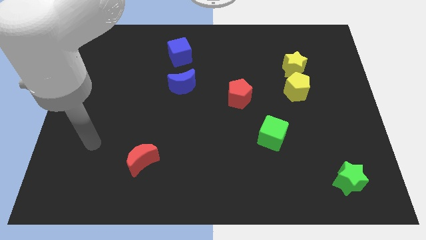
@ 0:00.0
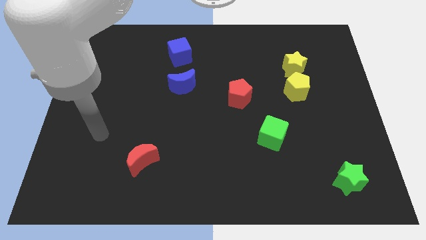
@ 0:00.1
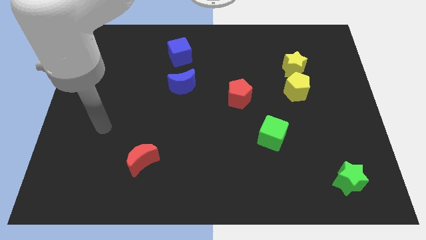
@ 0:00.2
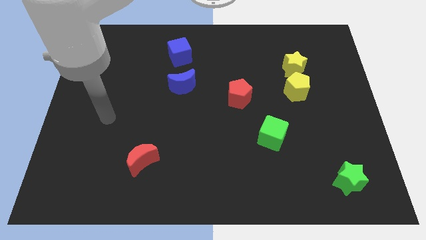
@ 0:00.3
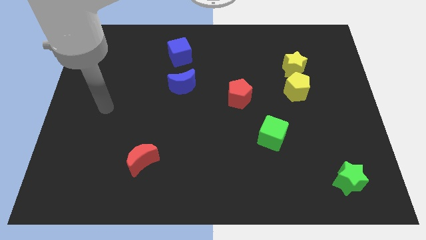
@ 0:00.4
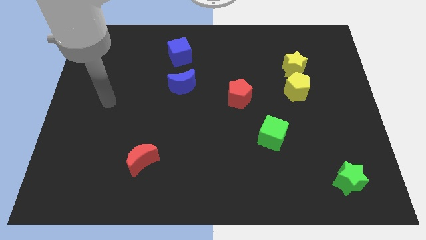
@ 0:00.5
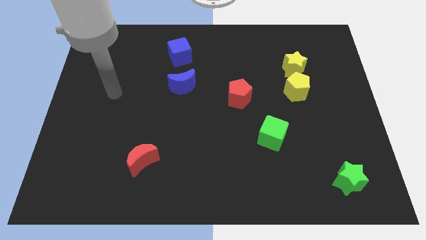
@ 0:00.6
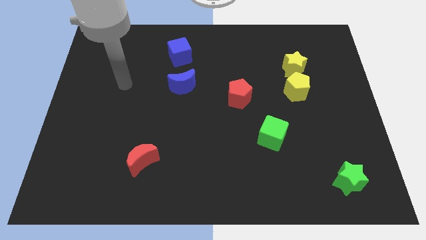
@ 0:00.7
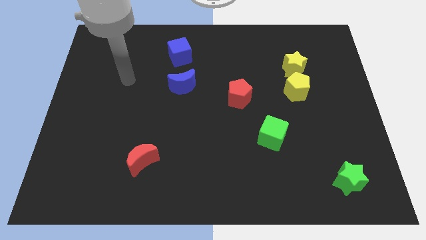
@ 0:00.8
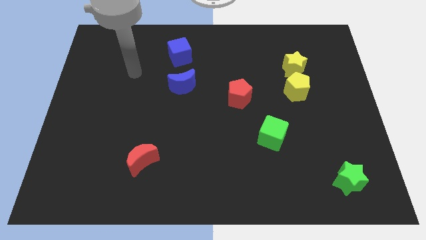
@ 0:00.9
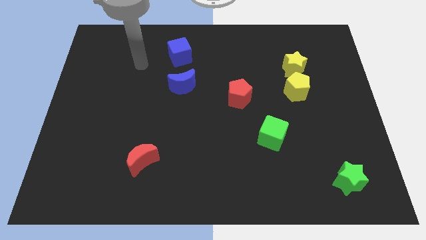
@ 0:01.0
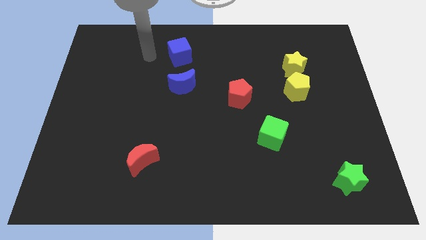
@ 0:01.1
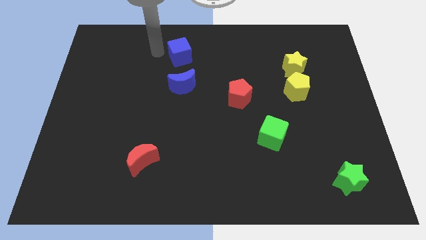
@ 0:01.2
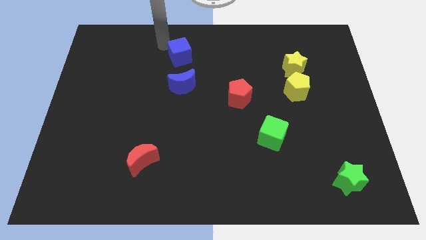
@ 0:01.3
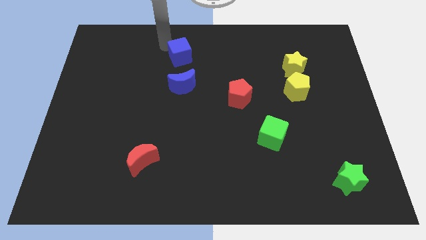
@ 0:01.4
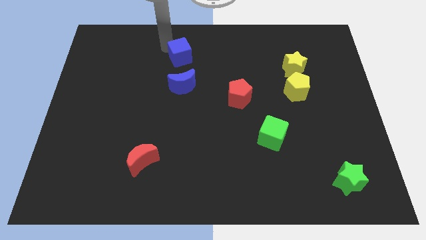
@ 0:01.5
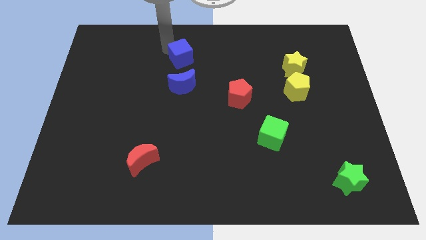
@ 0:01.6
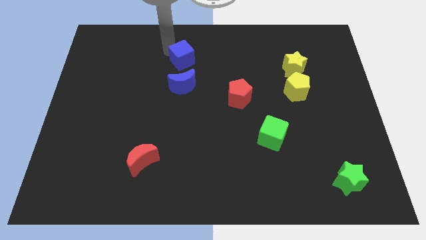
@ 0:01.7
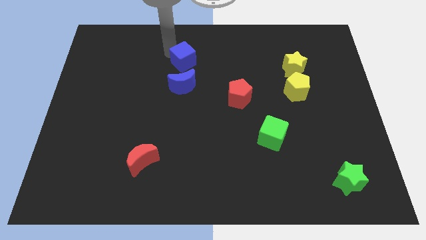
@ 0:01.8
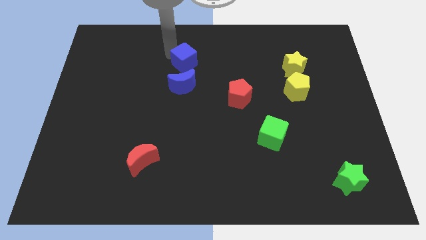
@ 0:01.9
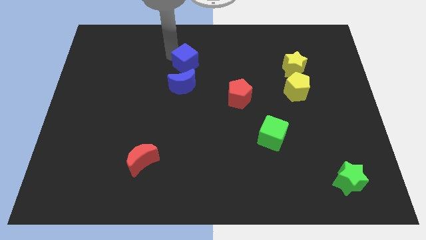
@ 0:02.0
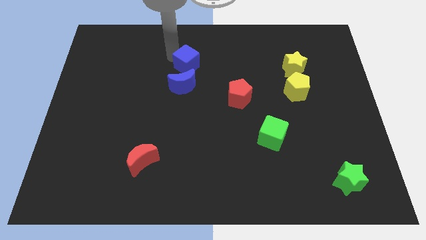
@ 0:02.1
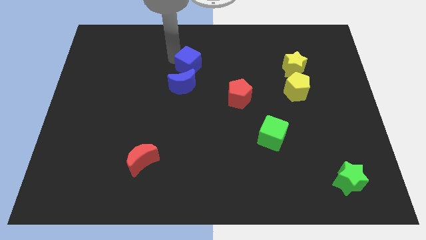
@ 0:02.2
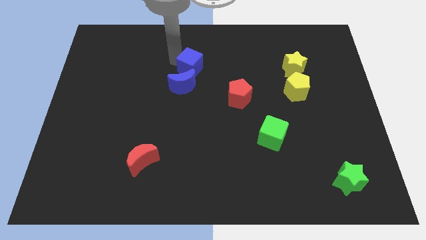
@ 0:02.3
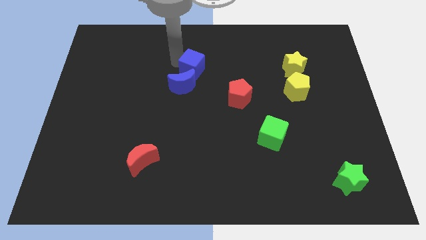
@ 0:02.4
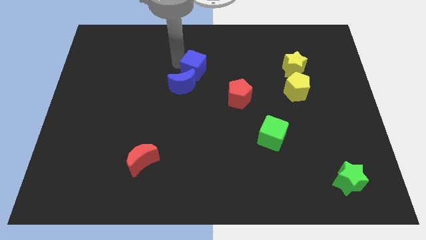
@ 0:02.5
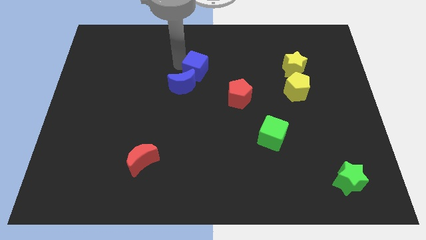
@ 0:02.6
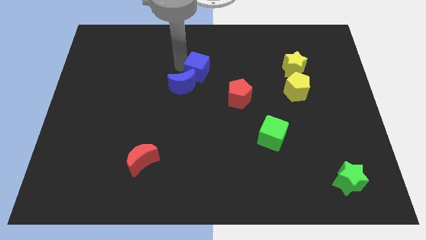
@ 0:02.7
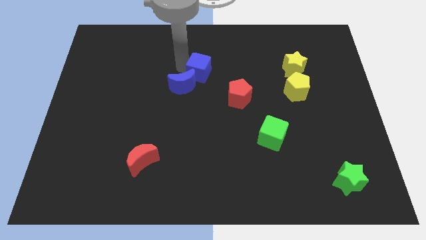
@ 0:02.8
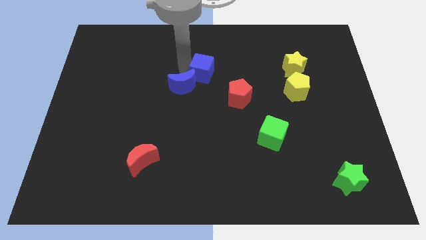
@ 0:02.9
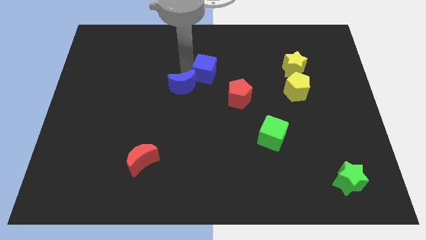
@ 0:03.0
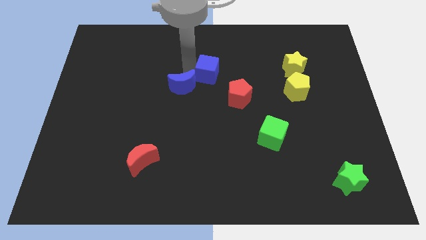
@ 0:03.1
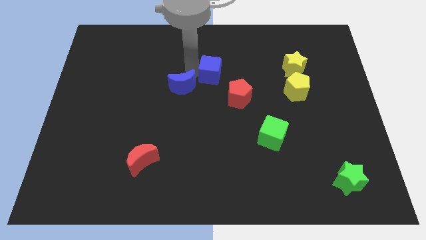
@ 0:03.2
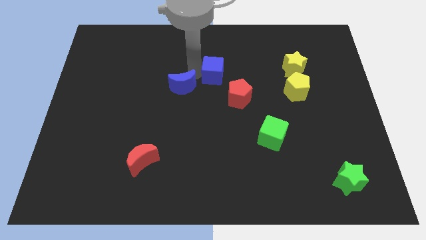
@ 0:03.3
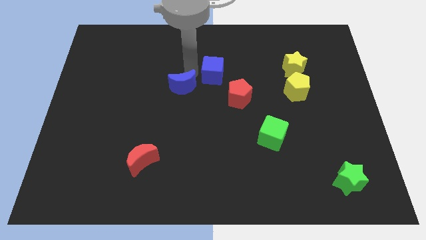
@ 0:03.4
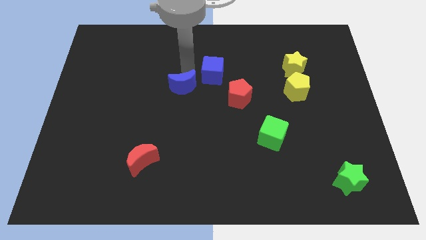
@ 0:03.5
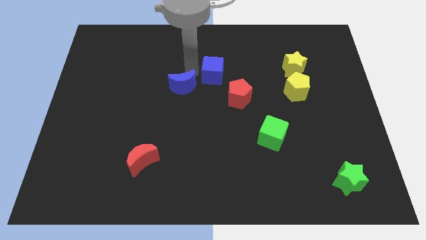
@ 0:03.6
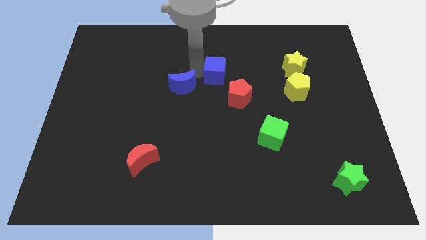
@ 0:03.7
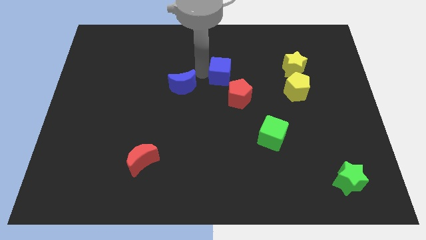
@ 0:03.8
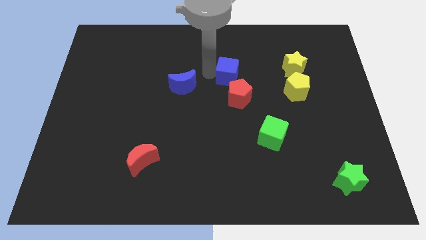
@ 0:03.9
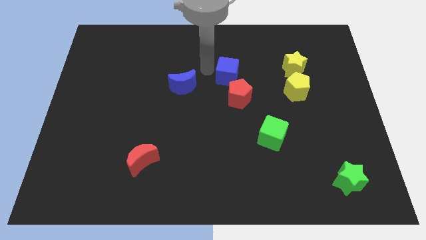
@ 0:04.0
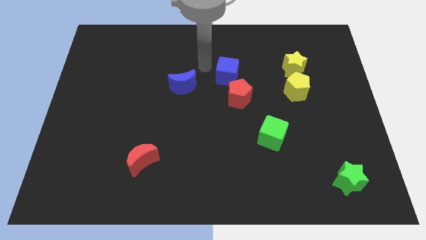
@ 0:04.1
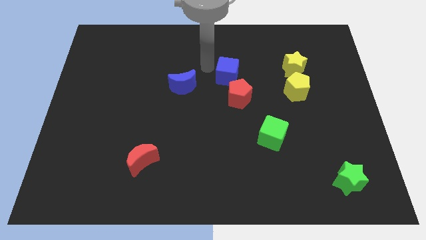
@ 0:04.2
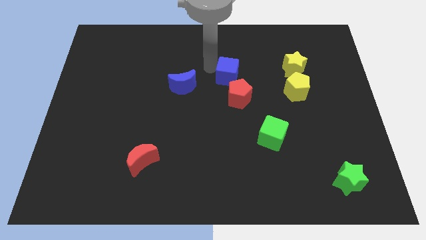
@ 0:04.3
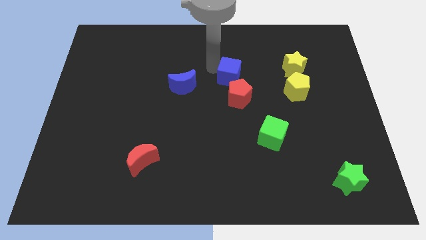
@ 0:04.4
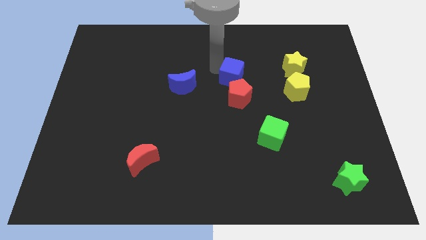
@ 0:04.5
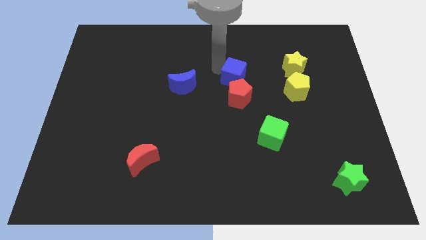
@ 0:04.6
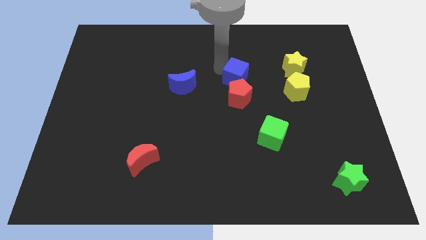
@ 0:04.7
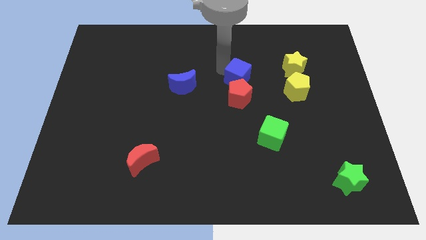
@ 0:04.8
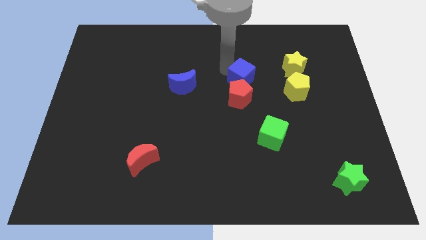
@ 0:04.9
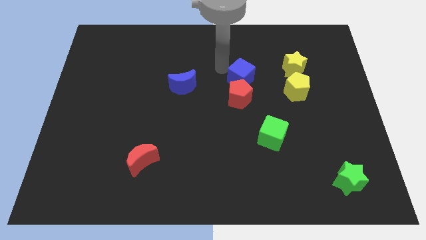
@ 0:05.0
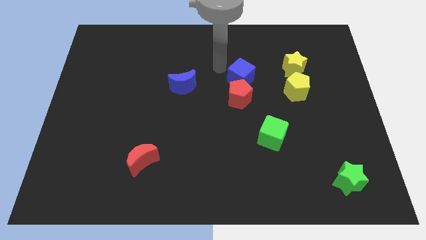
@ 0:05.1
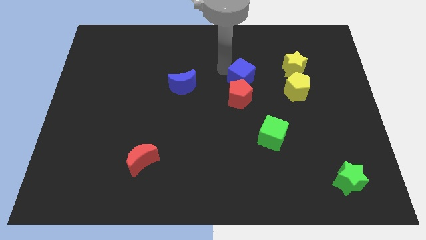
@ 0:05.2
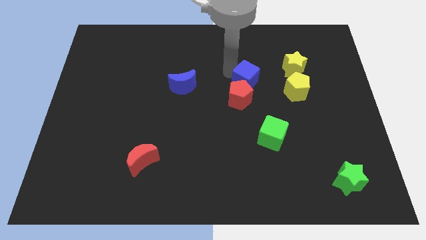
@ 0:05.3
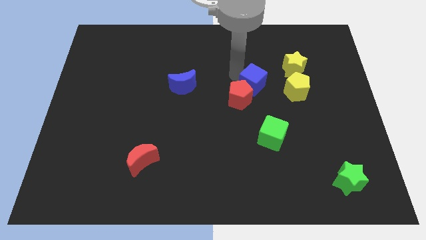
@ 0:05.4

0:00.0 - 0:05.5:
push the blue cube to the right side of the red pentagon

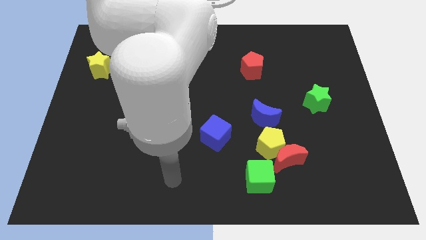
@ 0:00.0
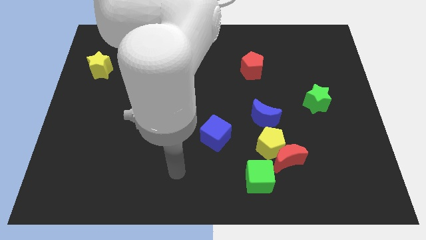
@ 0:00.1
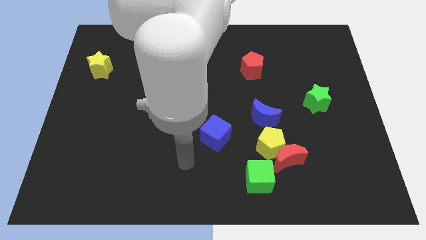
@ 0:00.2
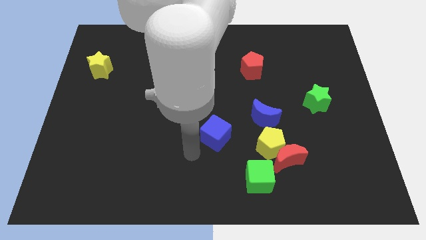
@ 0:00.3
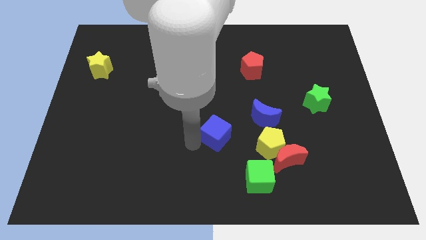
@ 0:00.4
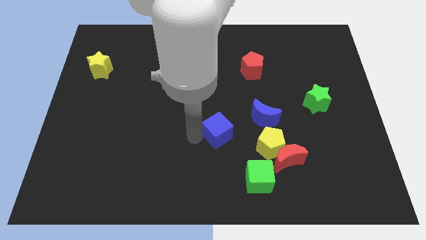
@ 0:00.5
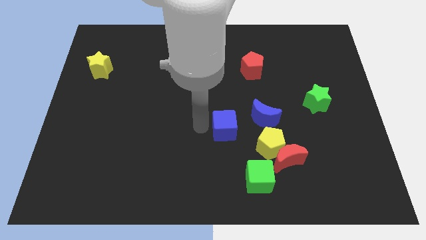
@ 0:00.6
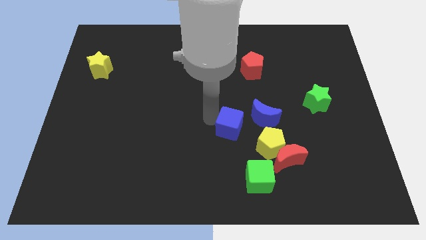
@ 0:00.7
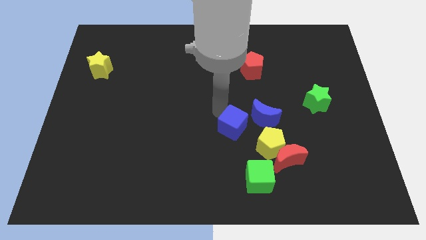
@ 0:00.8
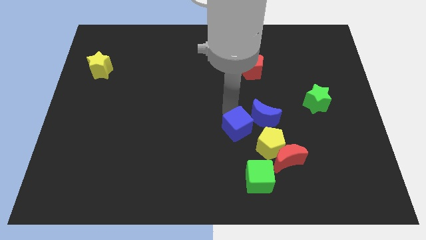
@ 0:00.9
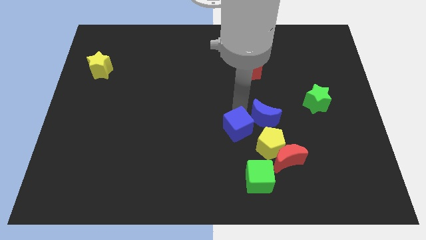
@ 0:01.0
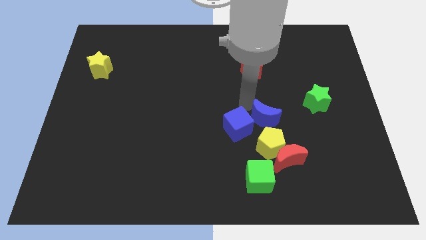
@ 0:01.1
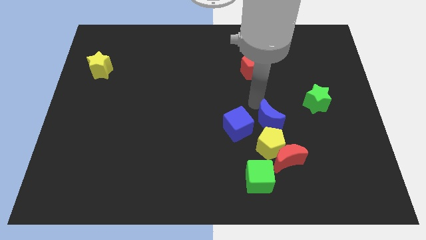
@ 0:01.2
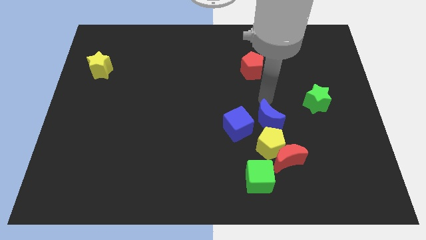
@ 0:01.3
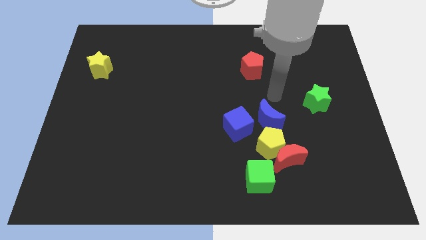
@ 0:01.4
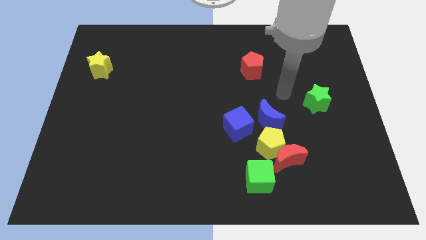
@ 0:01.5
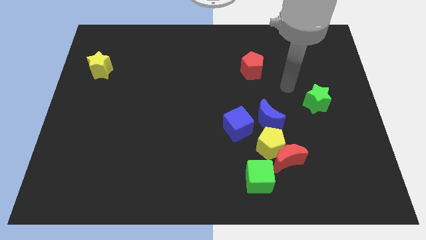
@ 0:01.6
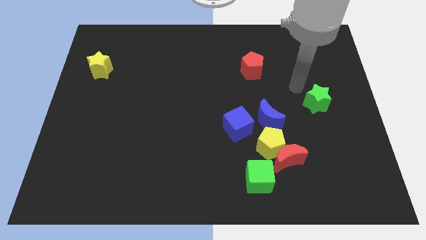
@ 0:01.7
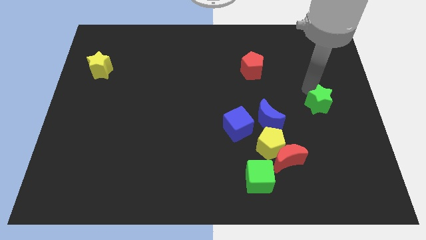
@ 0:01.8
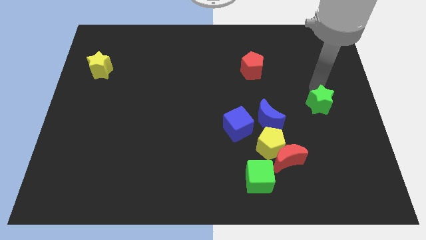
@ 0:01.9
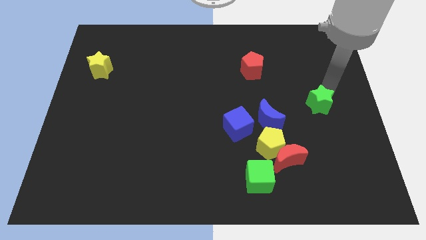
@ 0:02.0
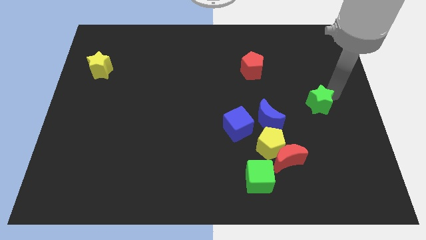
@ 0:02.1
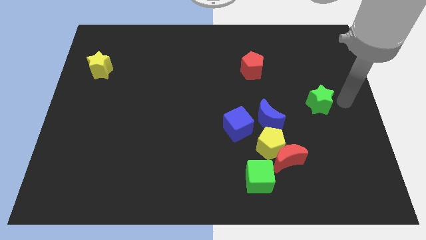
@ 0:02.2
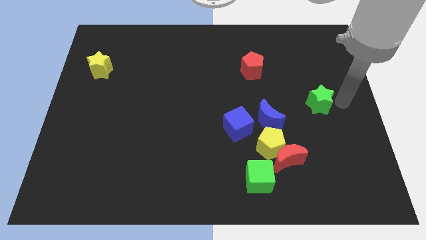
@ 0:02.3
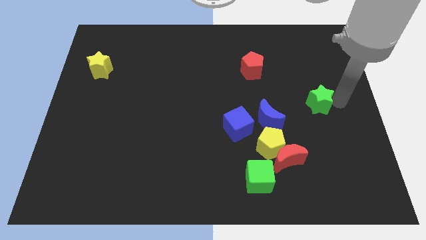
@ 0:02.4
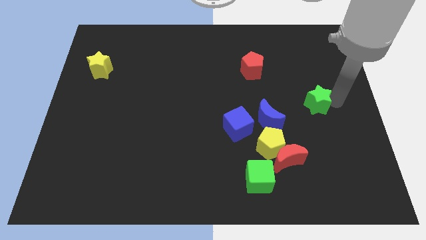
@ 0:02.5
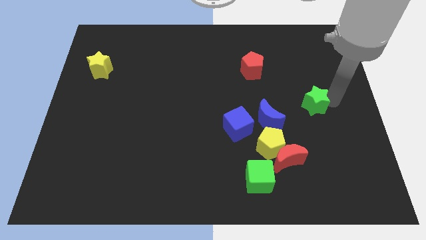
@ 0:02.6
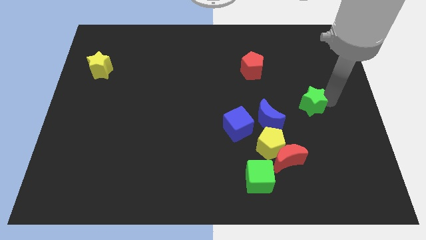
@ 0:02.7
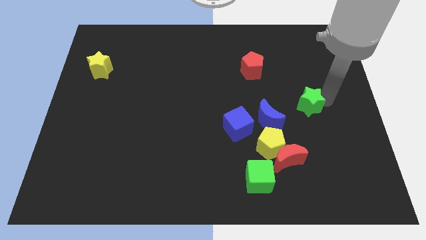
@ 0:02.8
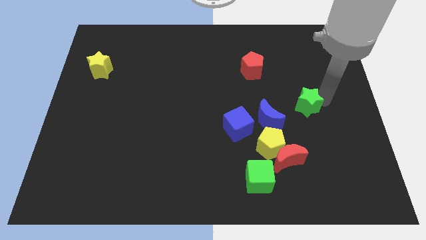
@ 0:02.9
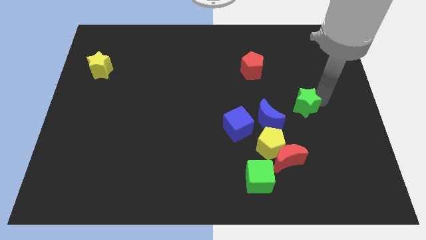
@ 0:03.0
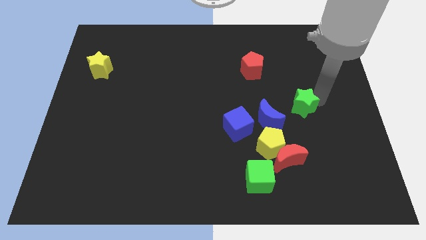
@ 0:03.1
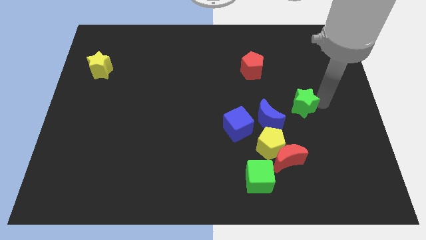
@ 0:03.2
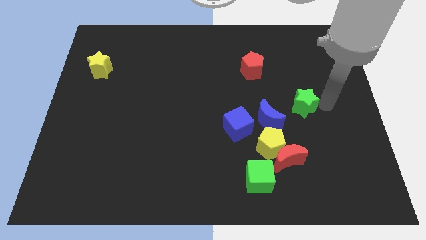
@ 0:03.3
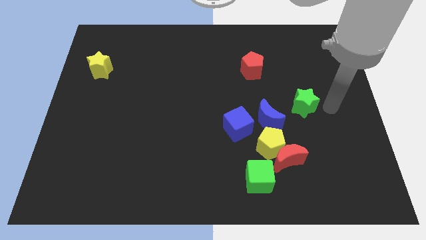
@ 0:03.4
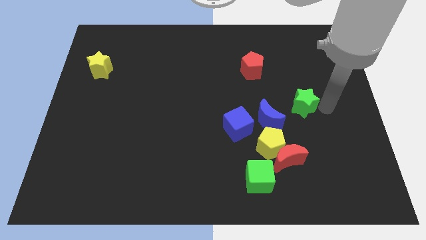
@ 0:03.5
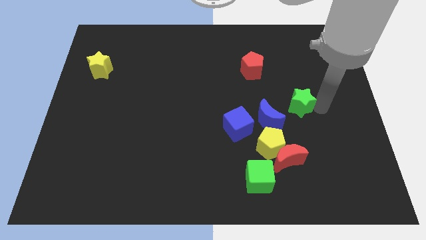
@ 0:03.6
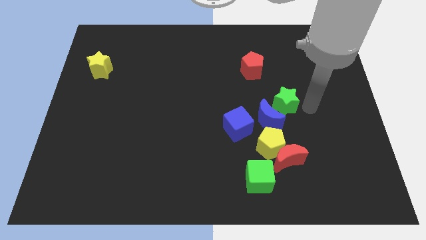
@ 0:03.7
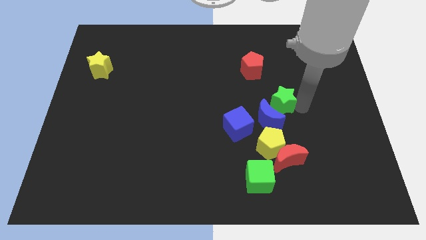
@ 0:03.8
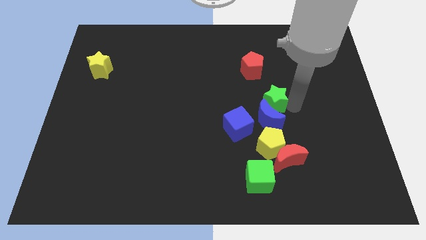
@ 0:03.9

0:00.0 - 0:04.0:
push the green star to the bottom side of the red pentagon
